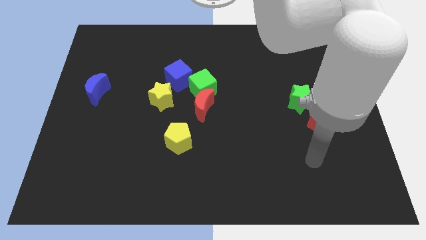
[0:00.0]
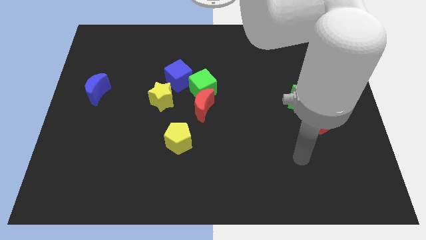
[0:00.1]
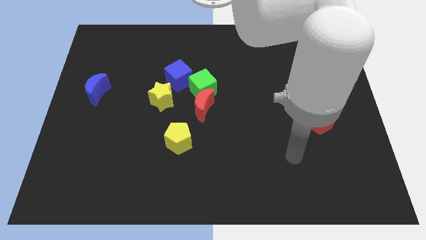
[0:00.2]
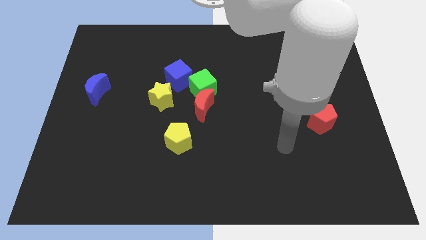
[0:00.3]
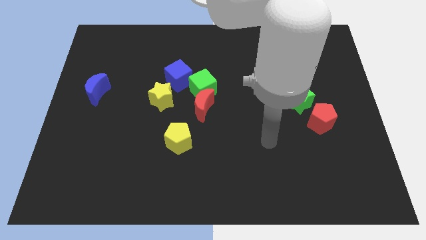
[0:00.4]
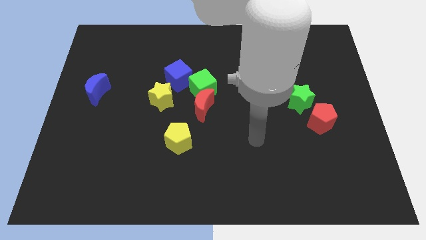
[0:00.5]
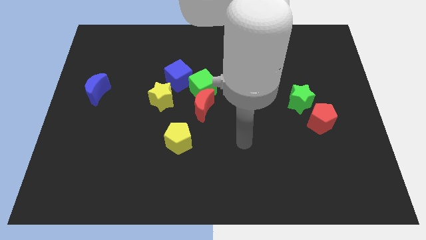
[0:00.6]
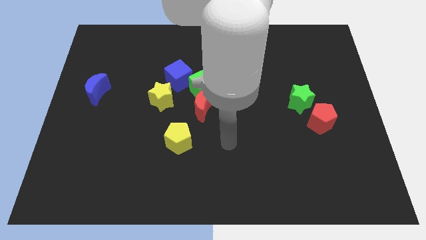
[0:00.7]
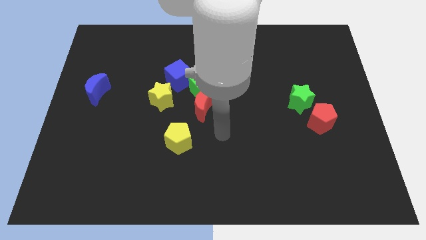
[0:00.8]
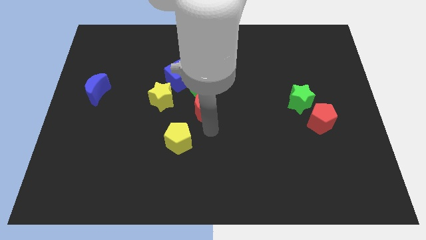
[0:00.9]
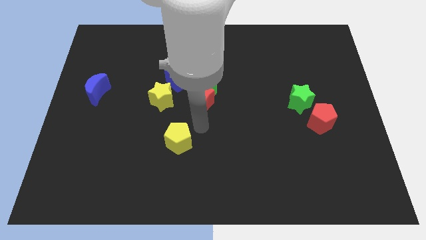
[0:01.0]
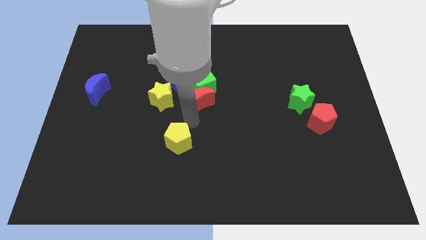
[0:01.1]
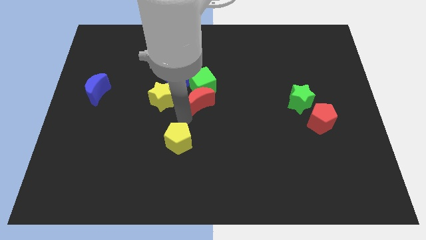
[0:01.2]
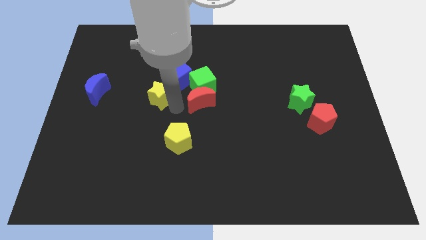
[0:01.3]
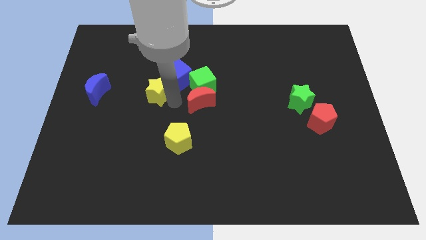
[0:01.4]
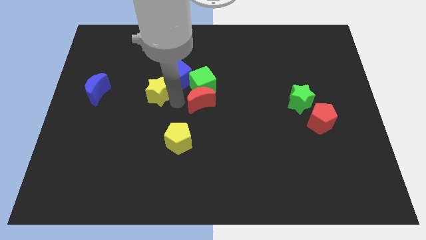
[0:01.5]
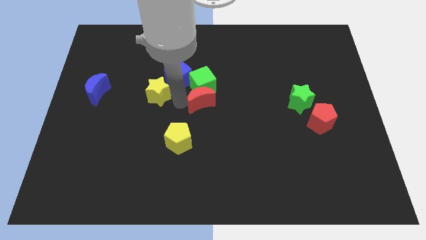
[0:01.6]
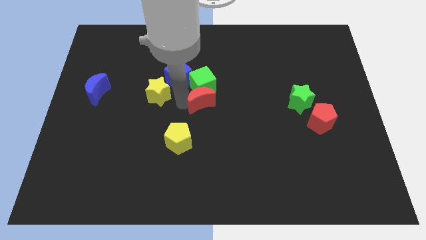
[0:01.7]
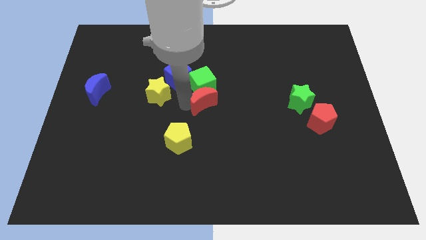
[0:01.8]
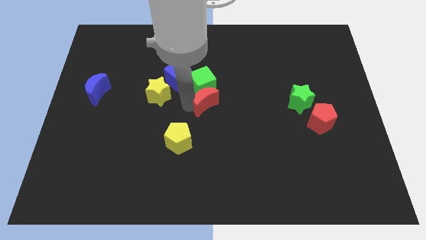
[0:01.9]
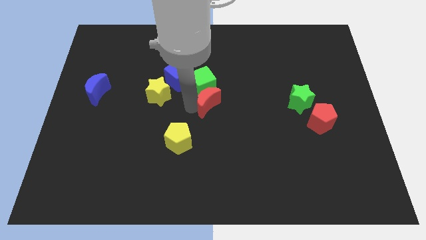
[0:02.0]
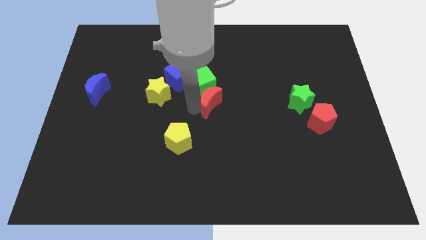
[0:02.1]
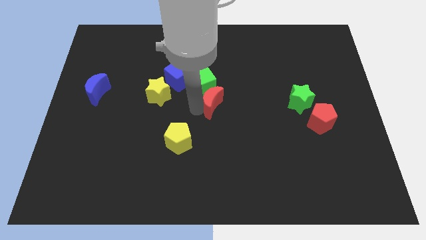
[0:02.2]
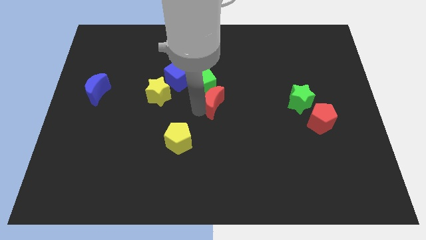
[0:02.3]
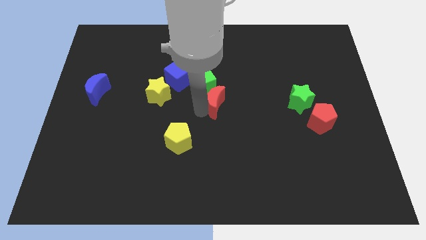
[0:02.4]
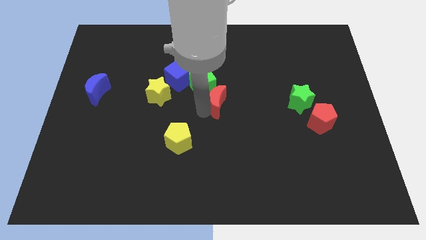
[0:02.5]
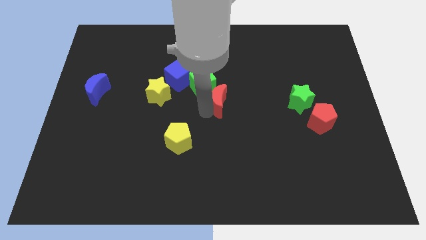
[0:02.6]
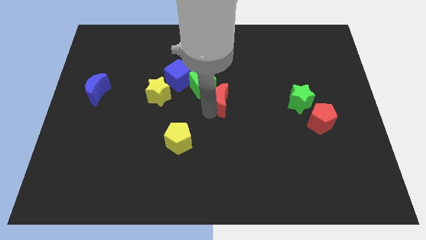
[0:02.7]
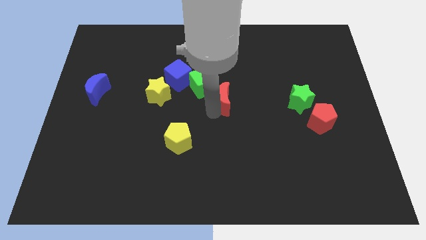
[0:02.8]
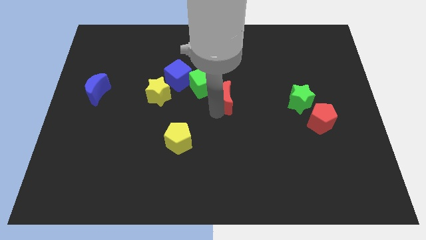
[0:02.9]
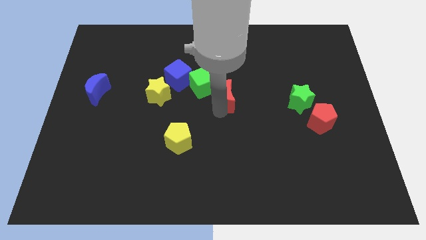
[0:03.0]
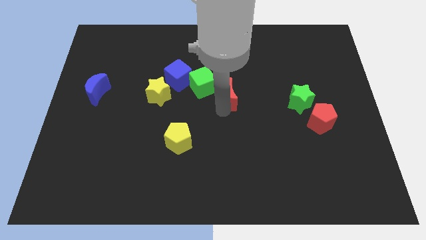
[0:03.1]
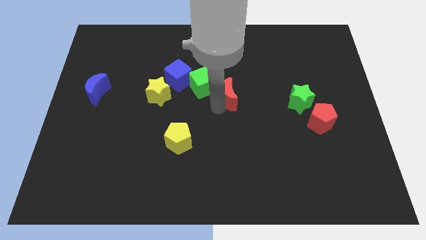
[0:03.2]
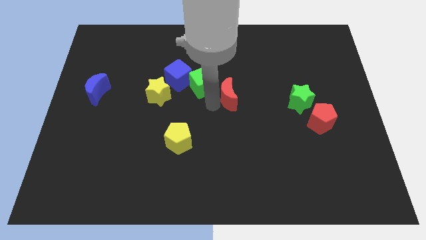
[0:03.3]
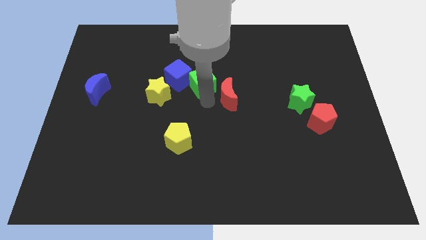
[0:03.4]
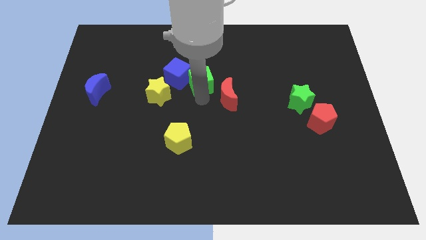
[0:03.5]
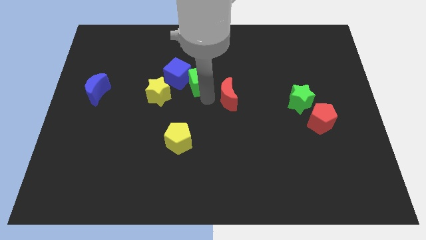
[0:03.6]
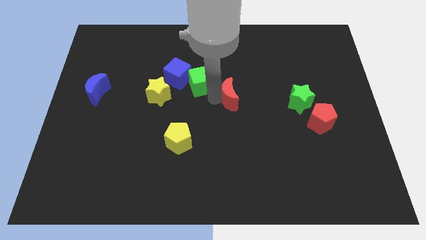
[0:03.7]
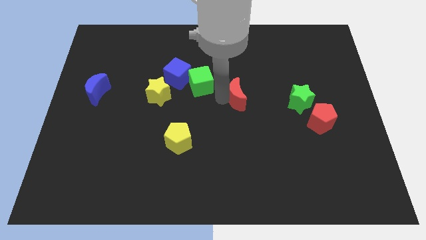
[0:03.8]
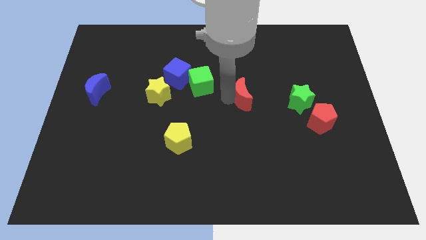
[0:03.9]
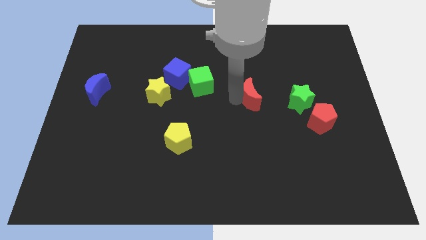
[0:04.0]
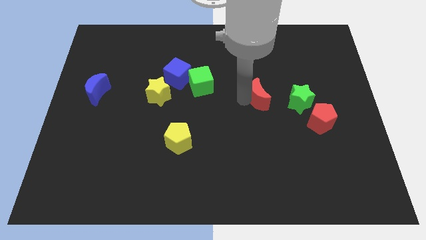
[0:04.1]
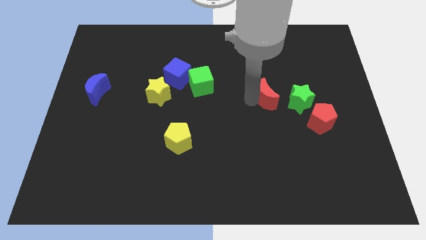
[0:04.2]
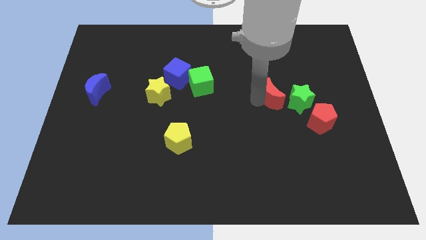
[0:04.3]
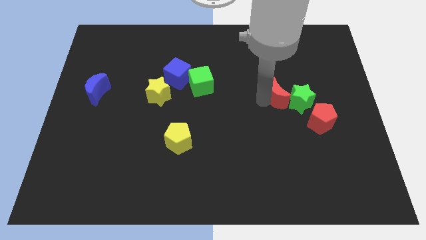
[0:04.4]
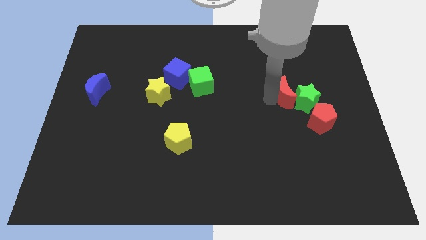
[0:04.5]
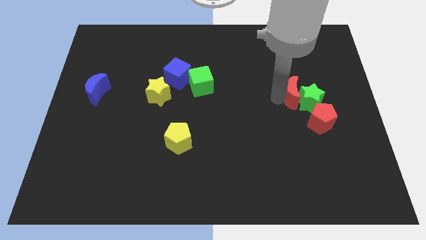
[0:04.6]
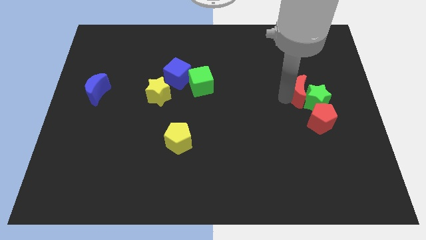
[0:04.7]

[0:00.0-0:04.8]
put the red moon to the top of the red pentagon

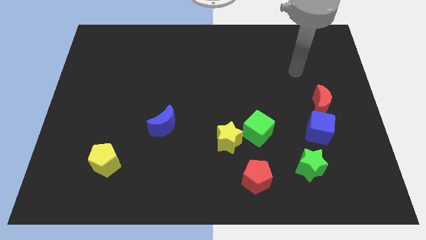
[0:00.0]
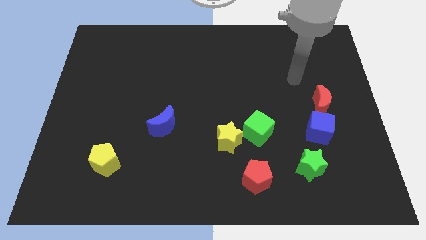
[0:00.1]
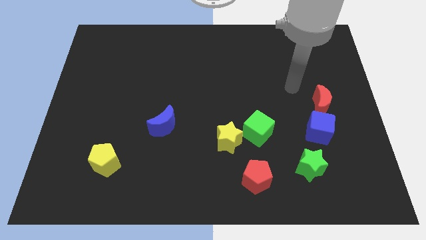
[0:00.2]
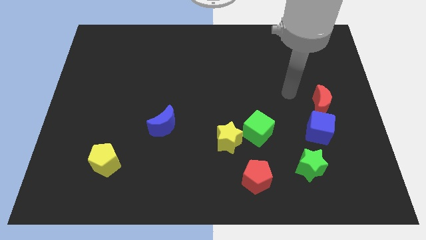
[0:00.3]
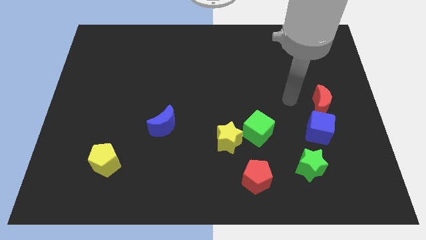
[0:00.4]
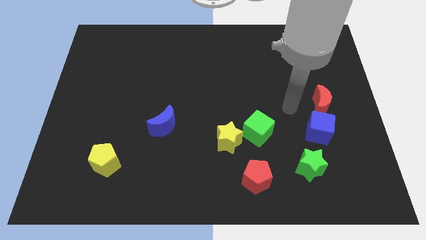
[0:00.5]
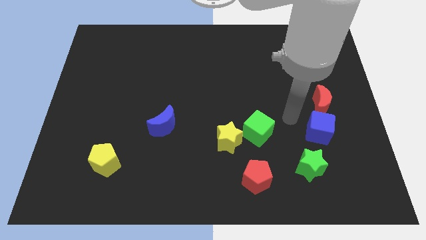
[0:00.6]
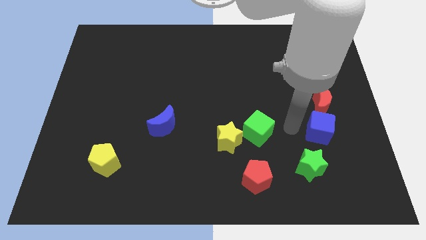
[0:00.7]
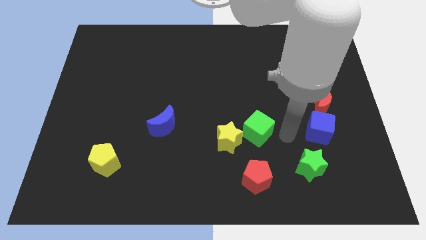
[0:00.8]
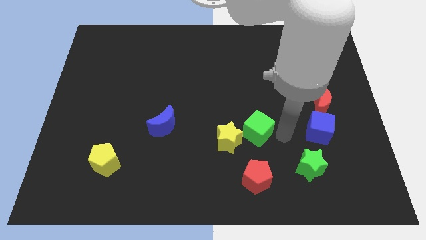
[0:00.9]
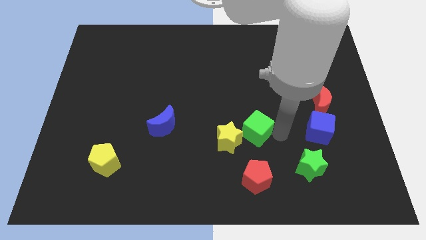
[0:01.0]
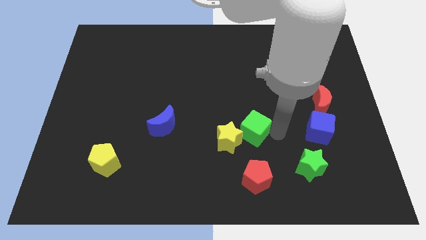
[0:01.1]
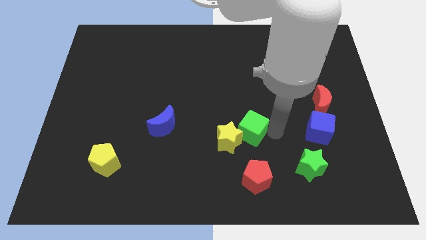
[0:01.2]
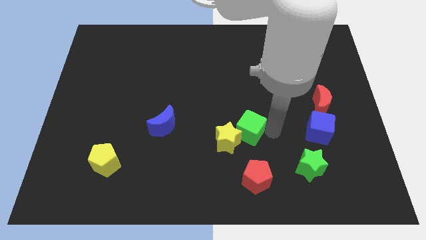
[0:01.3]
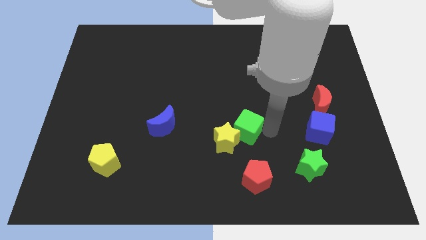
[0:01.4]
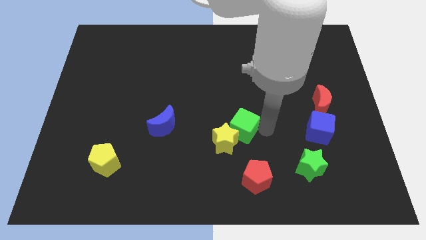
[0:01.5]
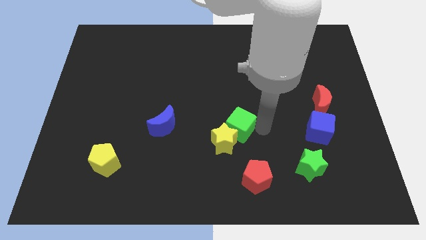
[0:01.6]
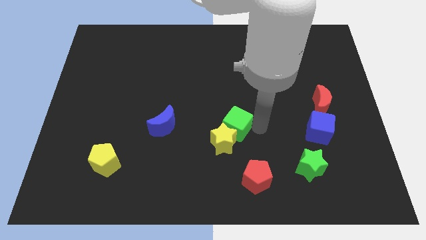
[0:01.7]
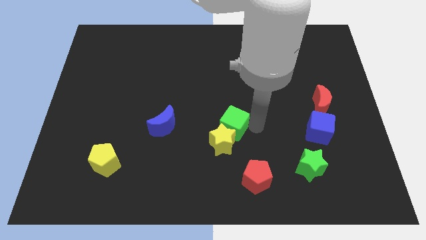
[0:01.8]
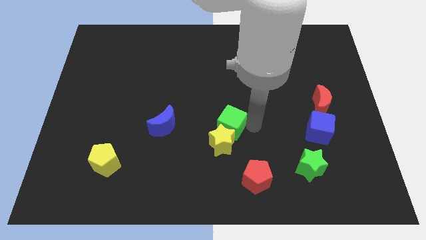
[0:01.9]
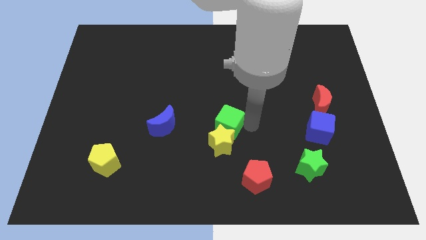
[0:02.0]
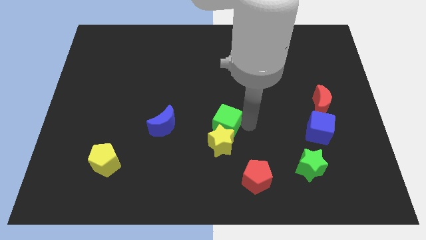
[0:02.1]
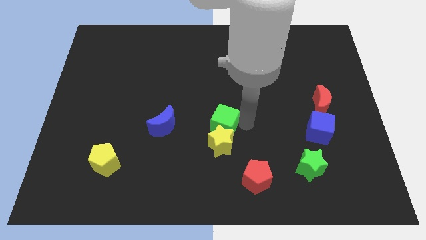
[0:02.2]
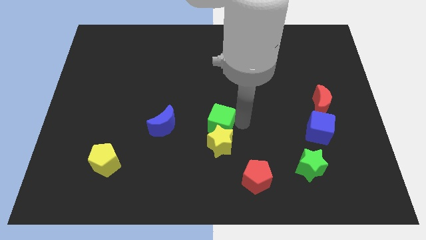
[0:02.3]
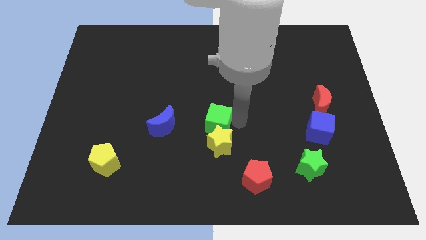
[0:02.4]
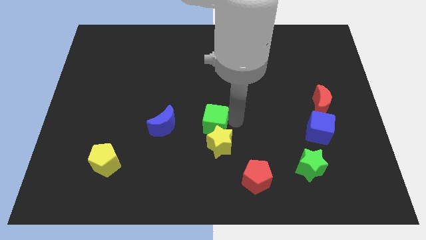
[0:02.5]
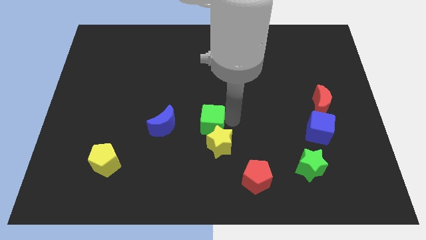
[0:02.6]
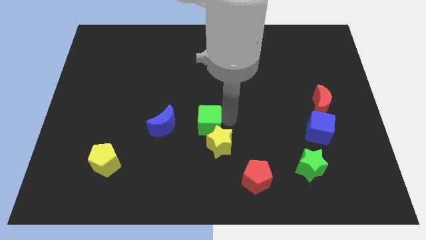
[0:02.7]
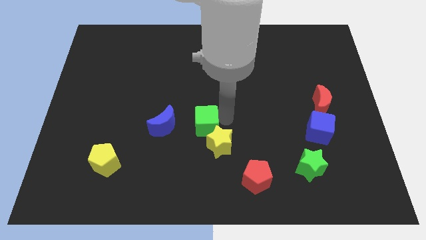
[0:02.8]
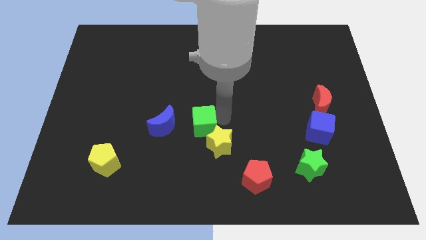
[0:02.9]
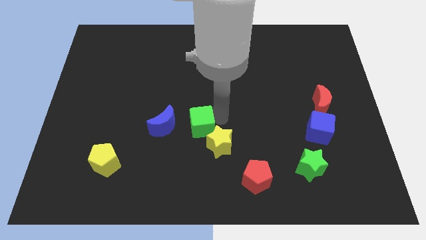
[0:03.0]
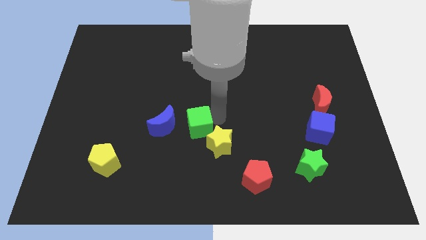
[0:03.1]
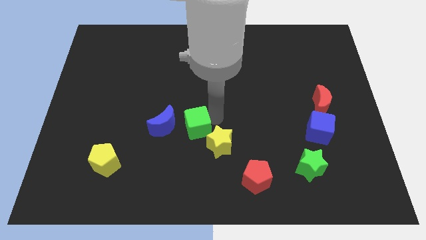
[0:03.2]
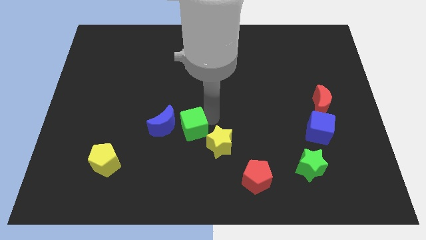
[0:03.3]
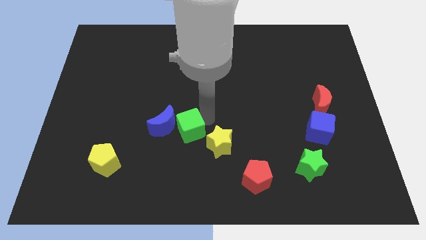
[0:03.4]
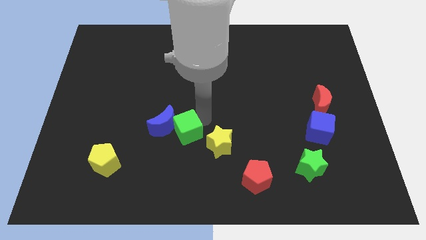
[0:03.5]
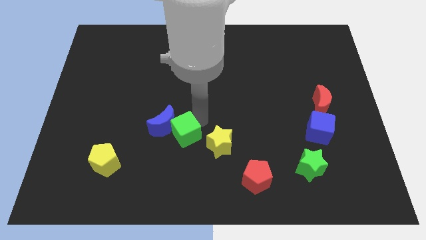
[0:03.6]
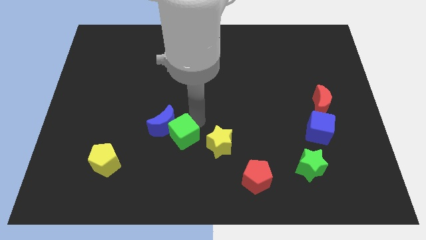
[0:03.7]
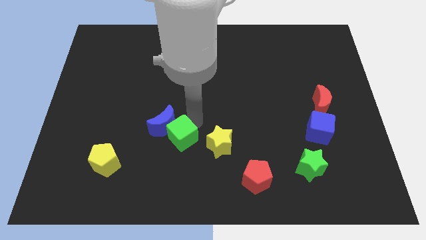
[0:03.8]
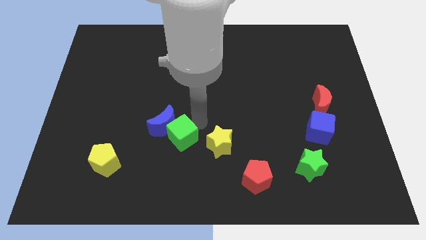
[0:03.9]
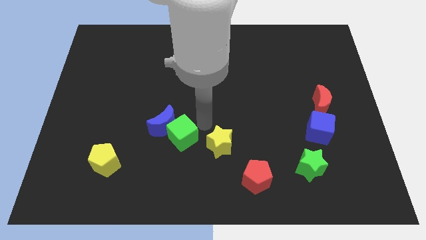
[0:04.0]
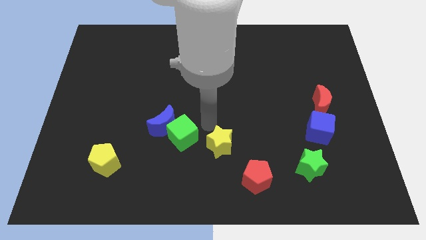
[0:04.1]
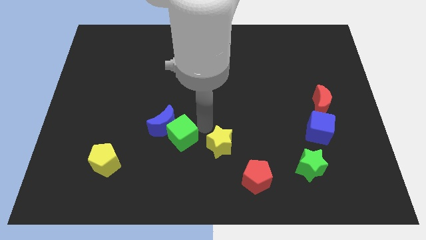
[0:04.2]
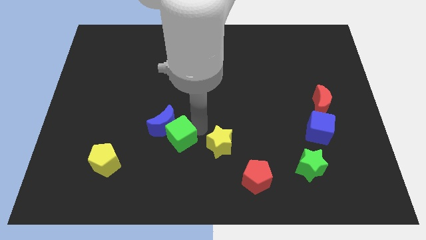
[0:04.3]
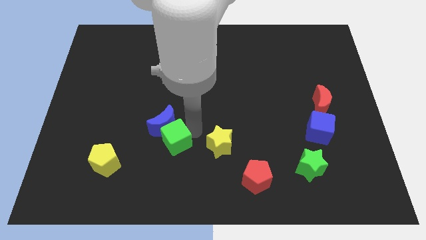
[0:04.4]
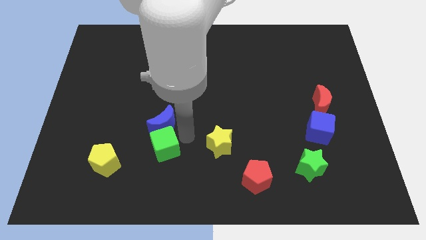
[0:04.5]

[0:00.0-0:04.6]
push the green cube diagonally down and to the left of the blue moon
